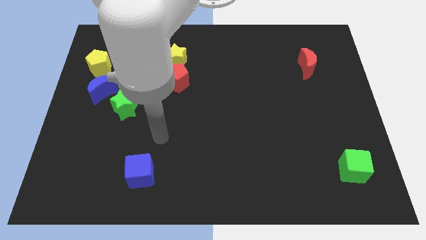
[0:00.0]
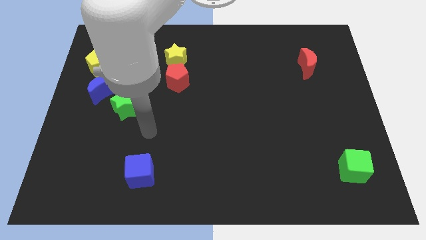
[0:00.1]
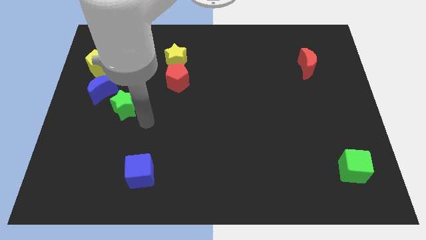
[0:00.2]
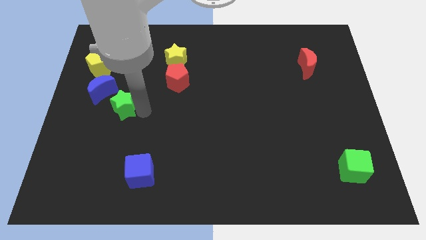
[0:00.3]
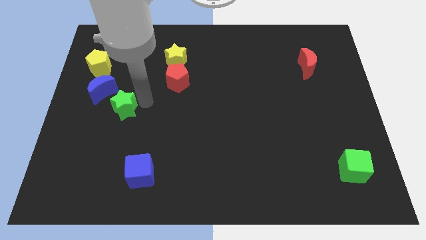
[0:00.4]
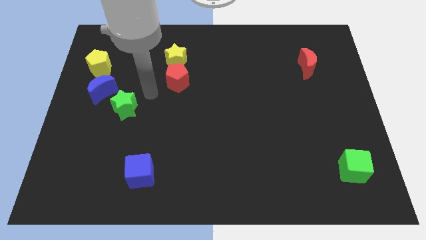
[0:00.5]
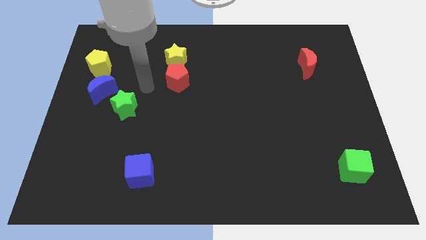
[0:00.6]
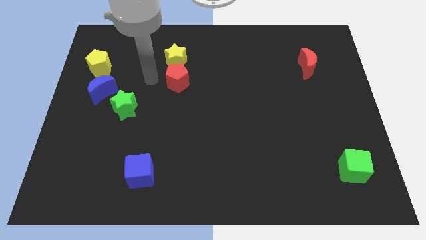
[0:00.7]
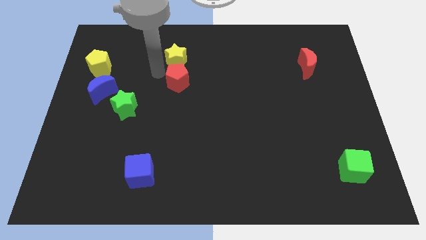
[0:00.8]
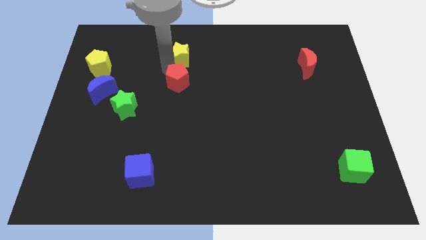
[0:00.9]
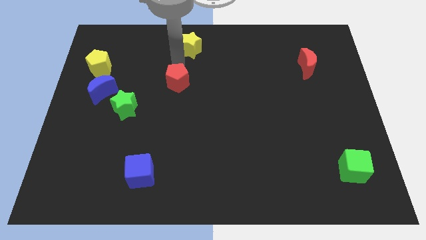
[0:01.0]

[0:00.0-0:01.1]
separate the red pentagon from the yellow star

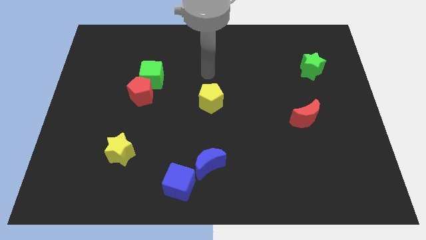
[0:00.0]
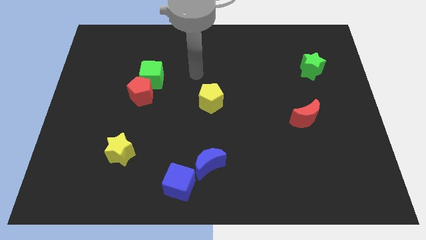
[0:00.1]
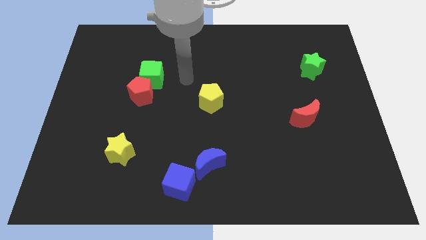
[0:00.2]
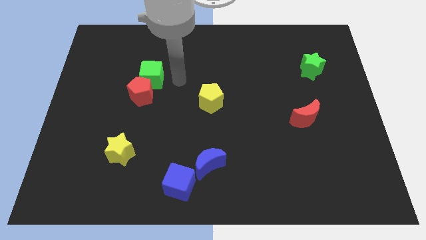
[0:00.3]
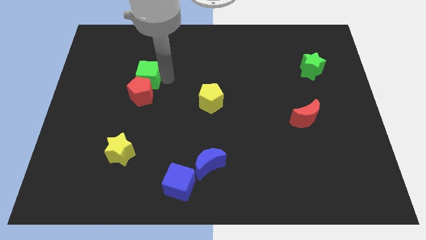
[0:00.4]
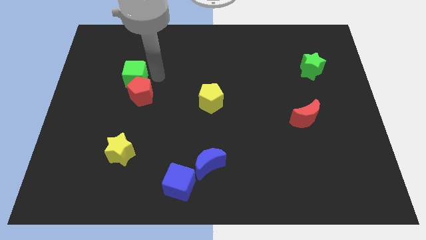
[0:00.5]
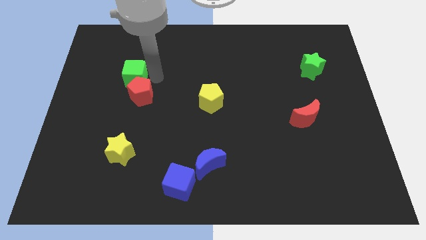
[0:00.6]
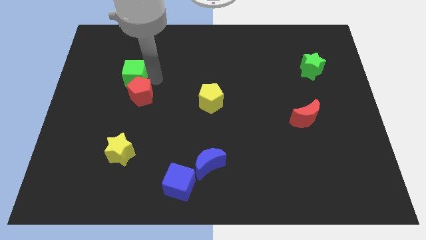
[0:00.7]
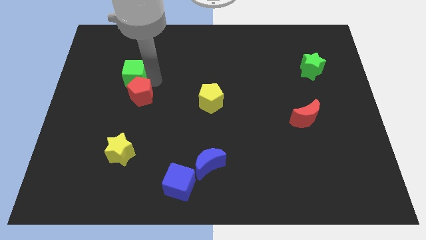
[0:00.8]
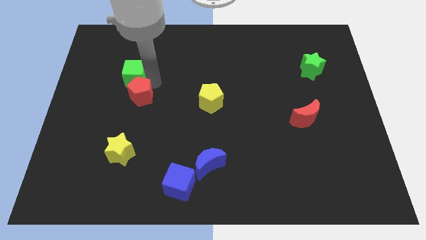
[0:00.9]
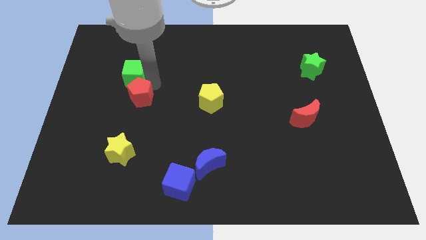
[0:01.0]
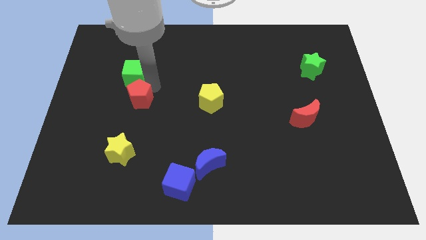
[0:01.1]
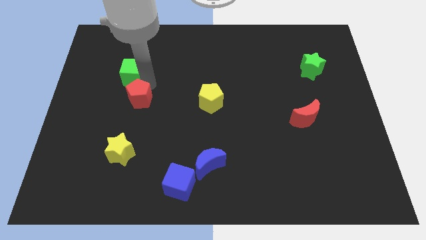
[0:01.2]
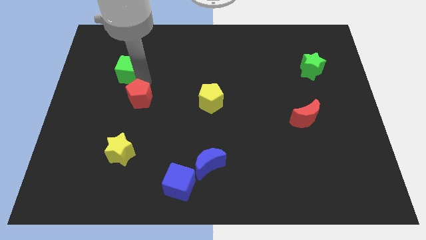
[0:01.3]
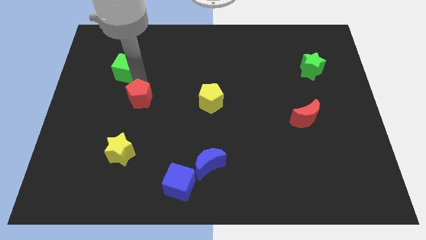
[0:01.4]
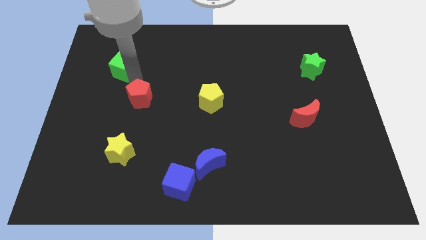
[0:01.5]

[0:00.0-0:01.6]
pull the red pentagon apart from the green cube

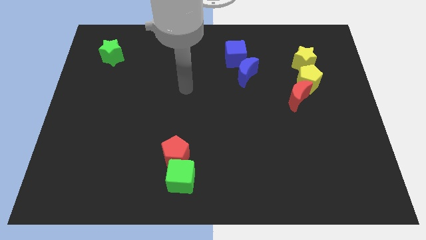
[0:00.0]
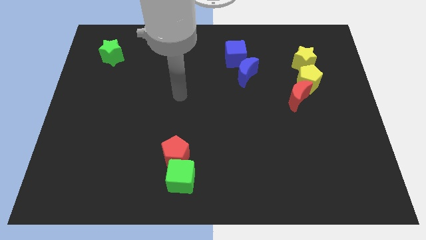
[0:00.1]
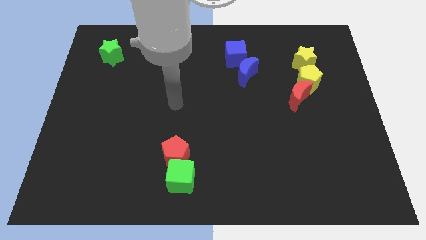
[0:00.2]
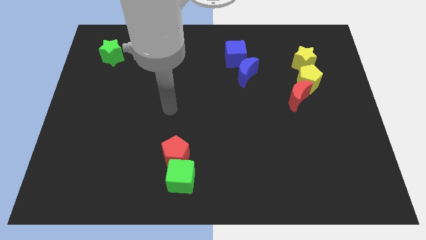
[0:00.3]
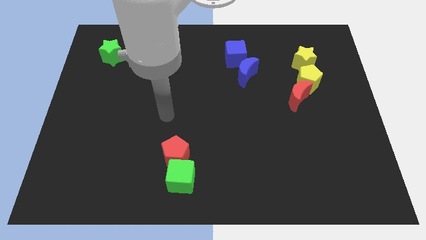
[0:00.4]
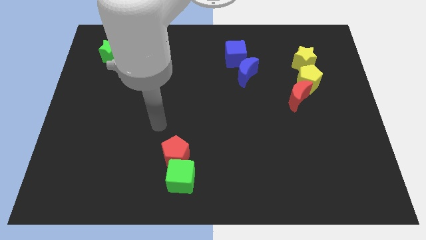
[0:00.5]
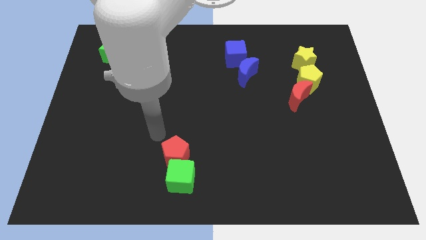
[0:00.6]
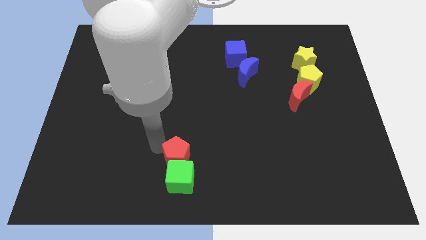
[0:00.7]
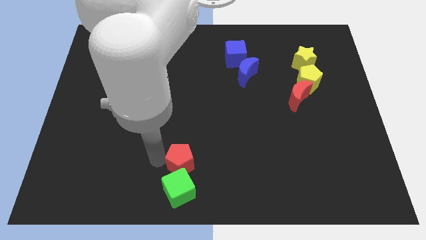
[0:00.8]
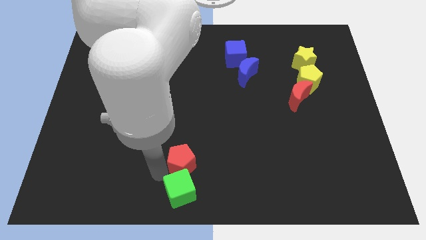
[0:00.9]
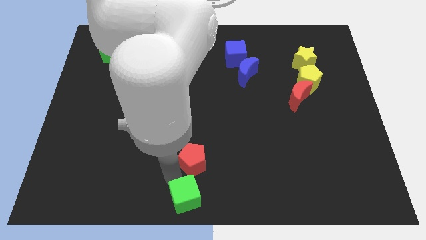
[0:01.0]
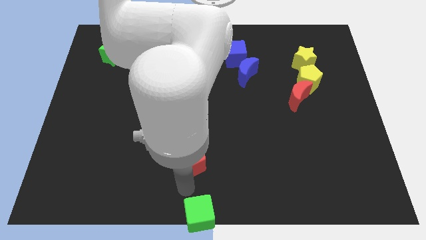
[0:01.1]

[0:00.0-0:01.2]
separate the red pentagon from the green cube

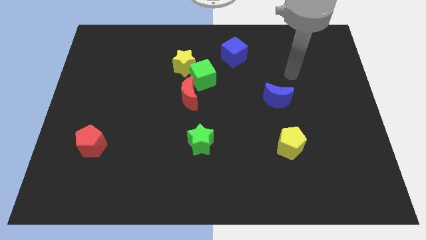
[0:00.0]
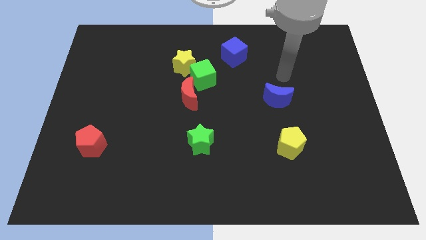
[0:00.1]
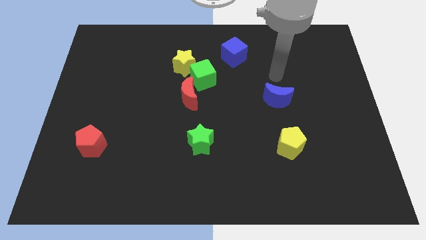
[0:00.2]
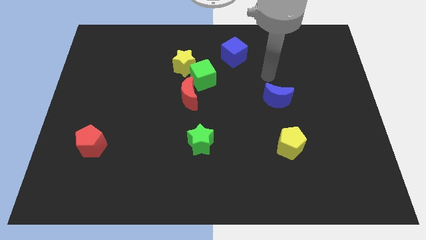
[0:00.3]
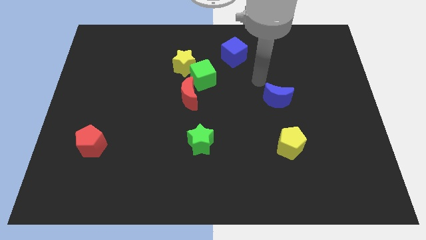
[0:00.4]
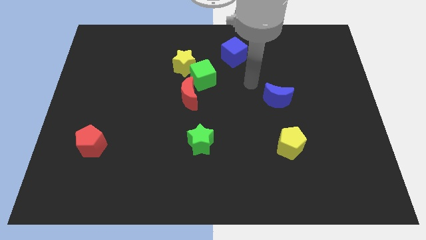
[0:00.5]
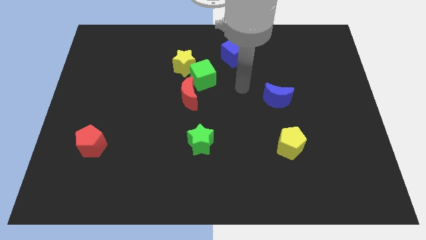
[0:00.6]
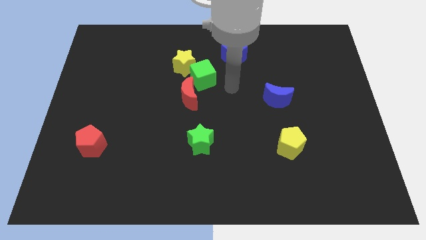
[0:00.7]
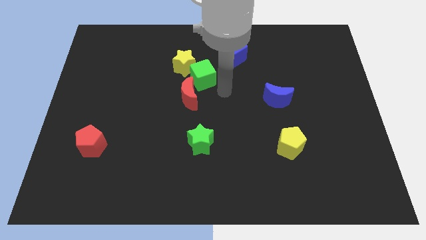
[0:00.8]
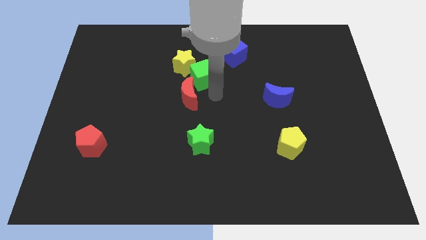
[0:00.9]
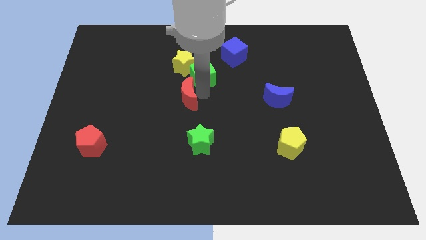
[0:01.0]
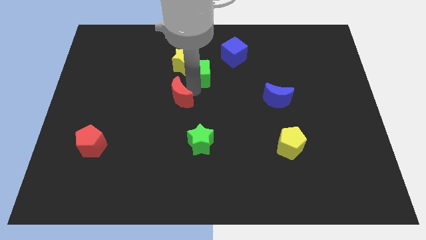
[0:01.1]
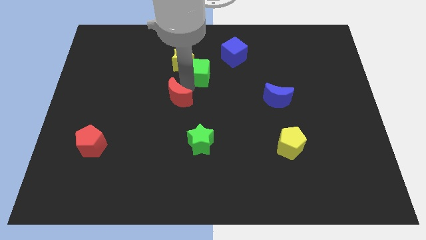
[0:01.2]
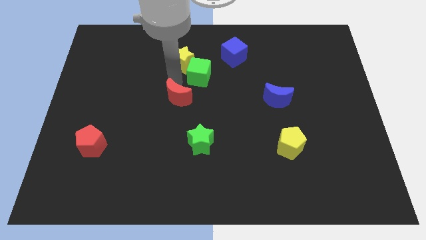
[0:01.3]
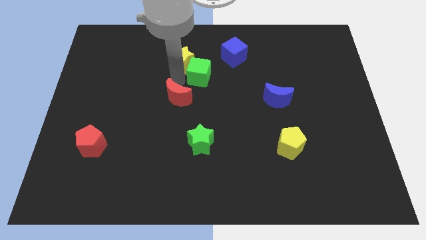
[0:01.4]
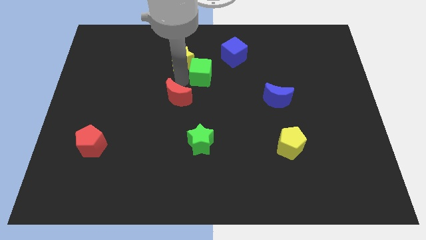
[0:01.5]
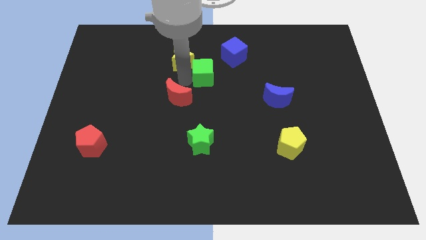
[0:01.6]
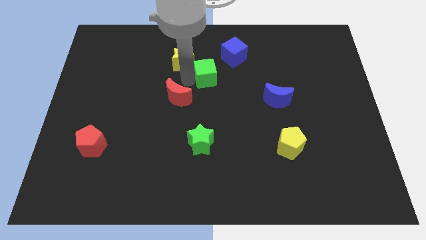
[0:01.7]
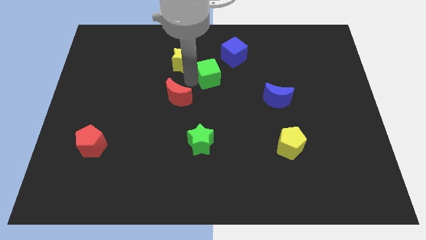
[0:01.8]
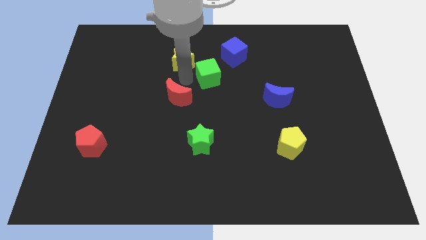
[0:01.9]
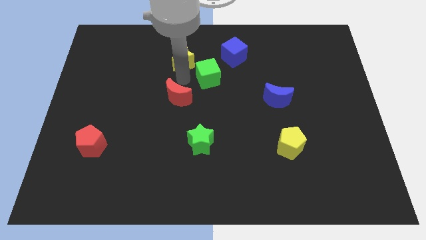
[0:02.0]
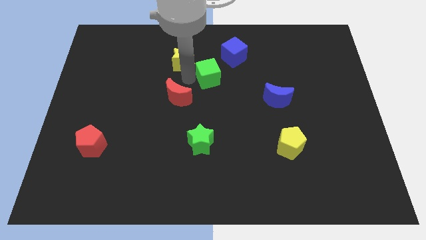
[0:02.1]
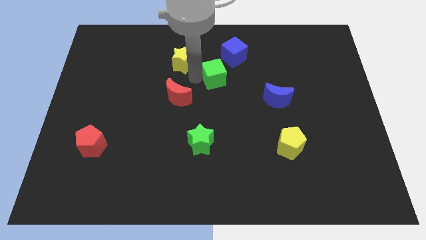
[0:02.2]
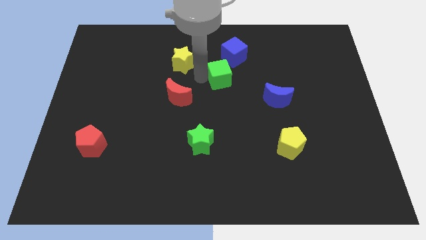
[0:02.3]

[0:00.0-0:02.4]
pull the green cube apart from the yellow star and red moon

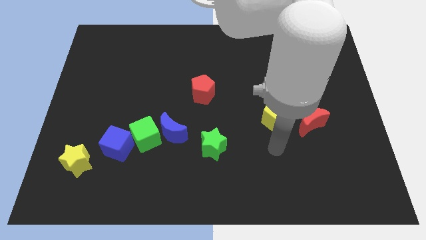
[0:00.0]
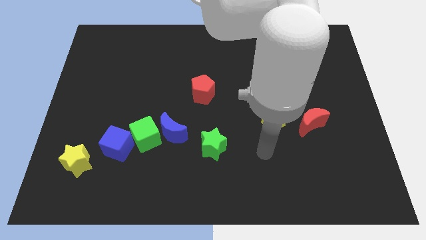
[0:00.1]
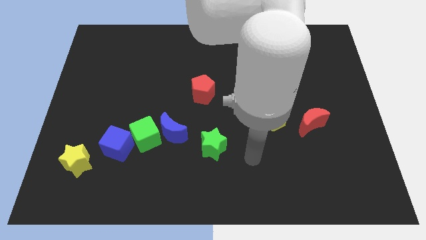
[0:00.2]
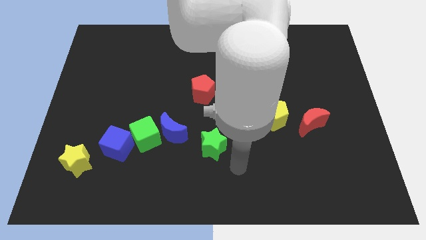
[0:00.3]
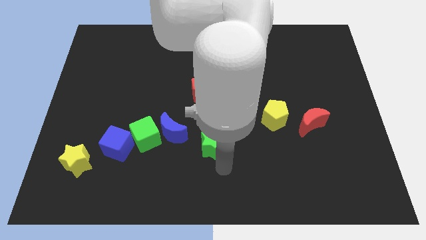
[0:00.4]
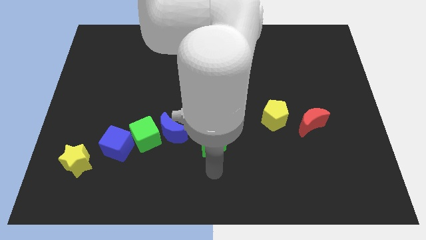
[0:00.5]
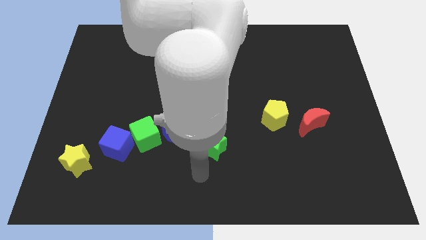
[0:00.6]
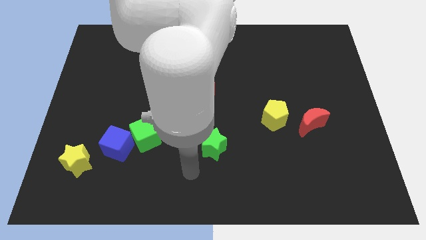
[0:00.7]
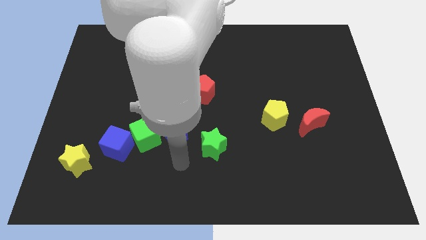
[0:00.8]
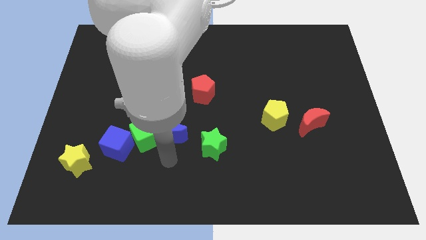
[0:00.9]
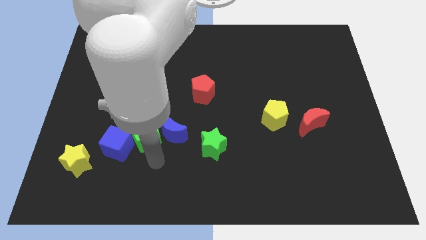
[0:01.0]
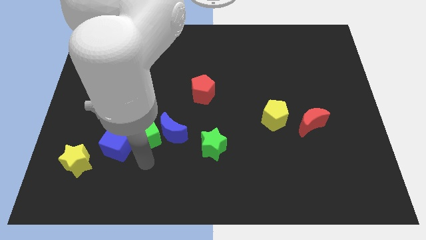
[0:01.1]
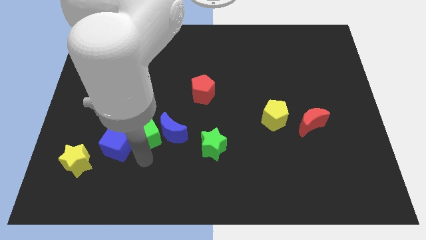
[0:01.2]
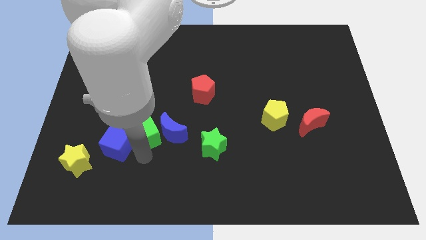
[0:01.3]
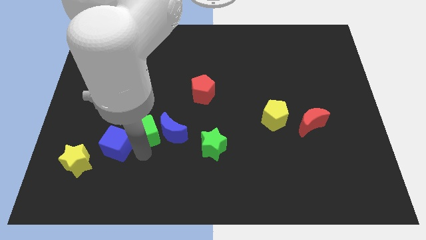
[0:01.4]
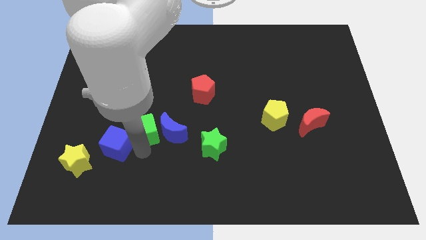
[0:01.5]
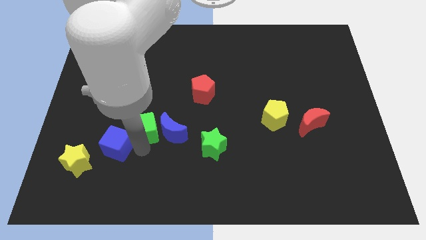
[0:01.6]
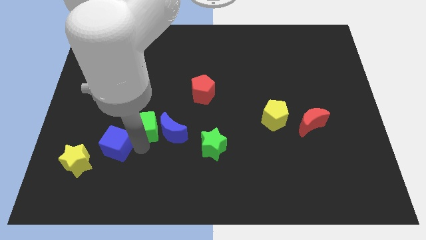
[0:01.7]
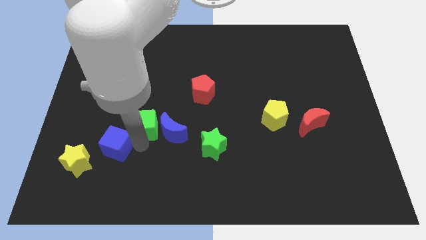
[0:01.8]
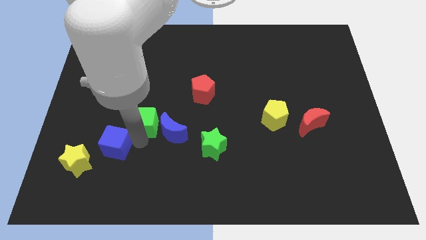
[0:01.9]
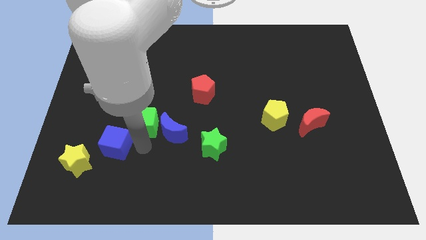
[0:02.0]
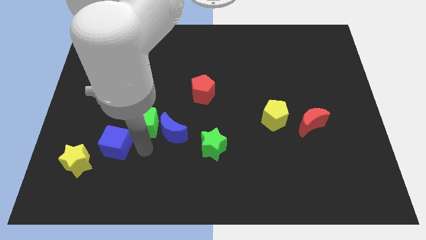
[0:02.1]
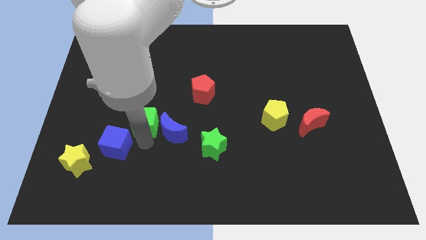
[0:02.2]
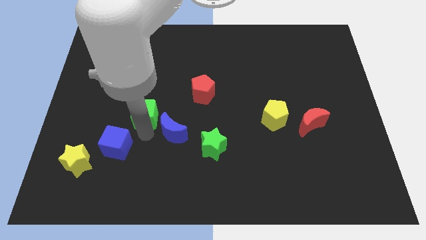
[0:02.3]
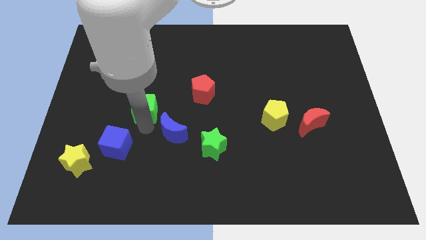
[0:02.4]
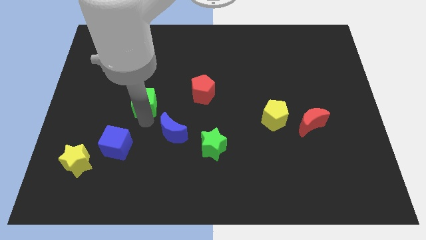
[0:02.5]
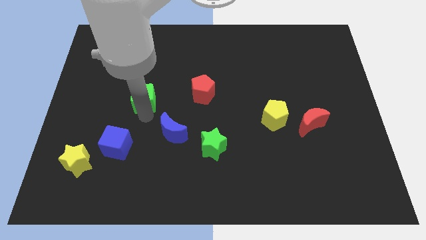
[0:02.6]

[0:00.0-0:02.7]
move the green cube away from the blue moon and blue cube

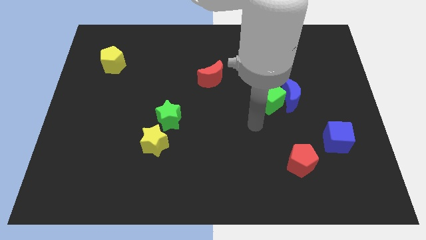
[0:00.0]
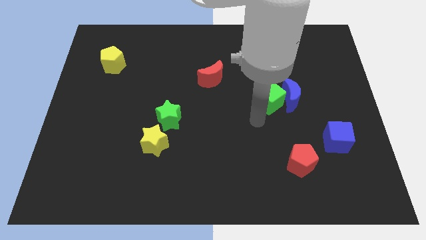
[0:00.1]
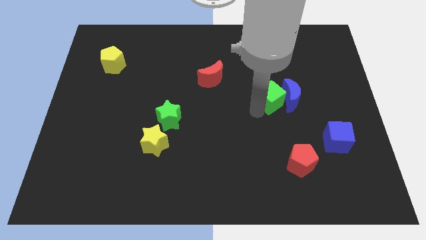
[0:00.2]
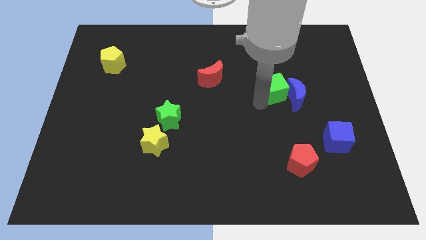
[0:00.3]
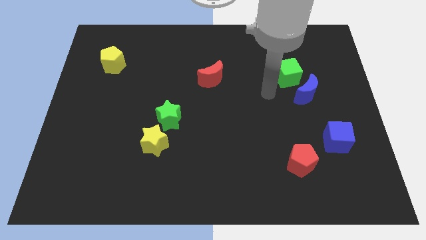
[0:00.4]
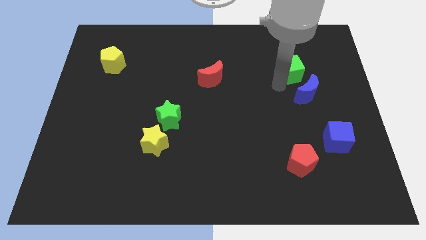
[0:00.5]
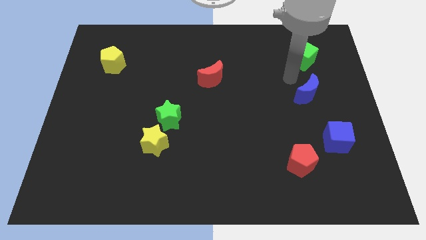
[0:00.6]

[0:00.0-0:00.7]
pull the blue moon apart from the green cube
